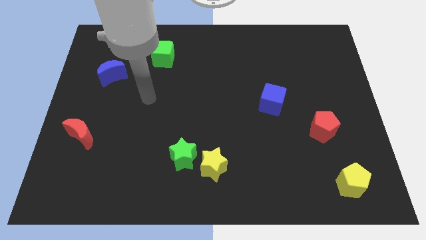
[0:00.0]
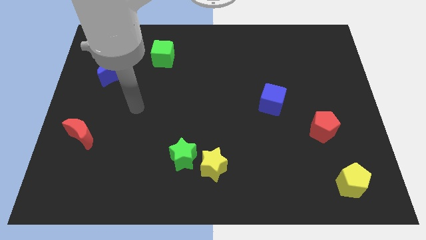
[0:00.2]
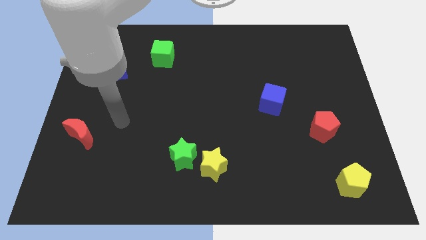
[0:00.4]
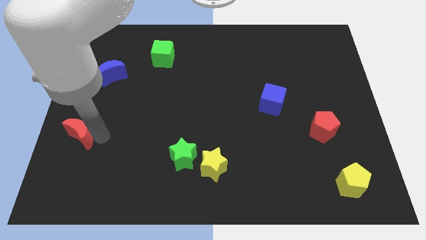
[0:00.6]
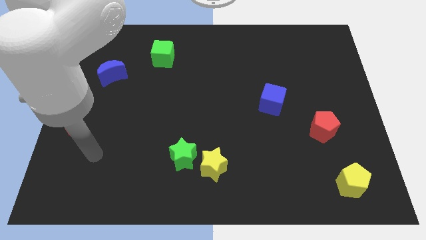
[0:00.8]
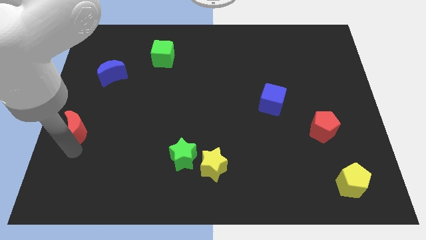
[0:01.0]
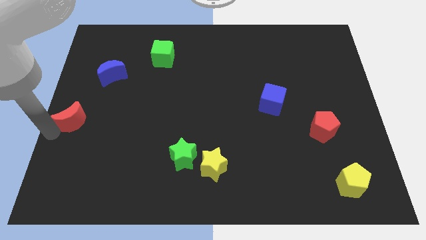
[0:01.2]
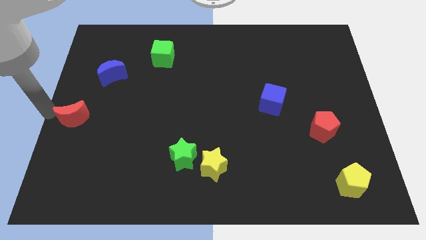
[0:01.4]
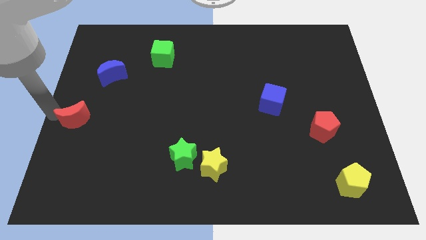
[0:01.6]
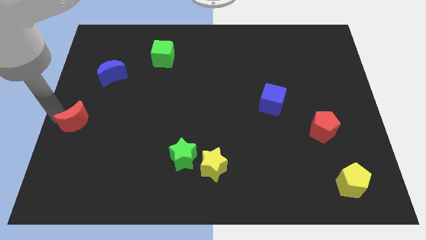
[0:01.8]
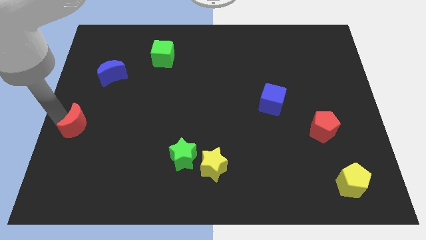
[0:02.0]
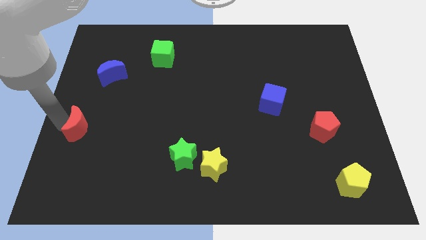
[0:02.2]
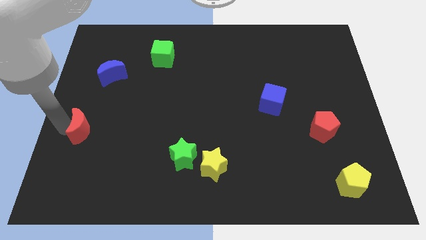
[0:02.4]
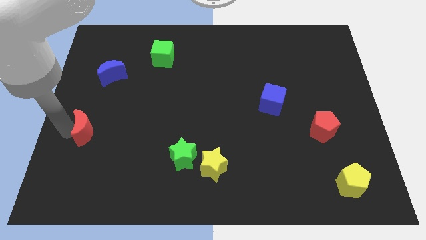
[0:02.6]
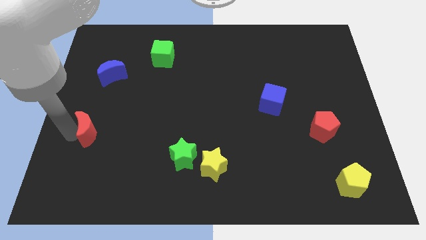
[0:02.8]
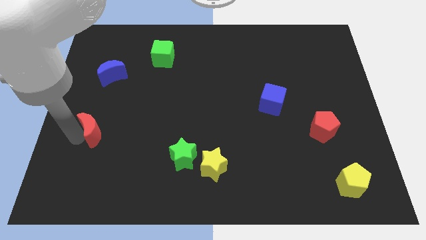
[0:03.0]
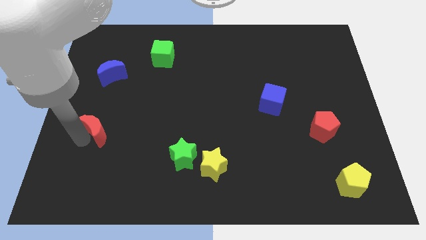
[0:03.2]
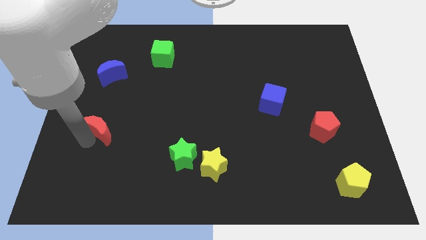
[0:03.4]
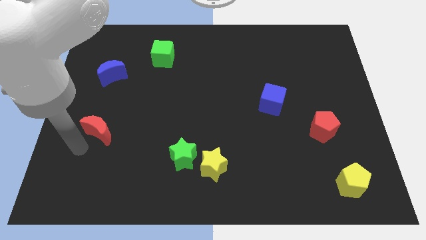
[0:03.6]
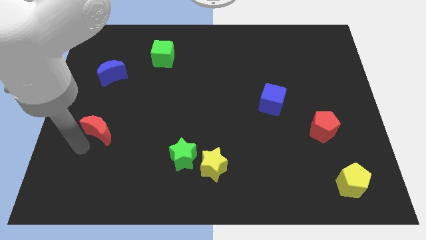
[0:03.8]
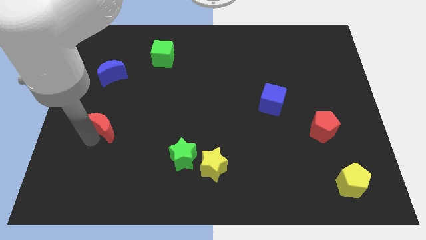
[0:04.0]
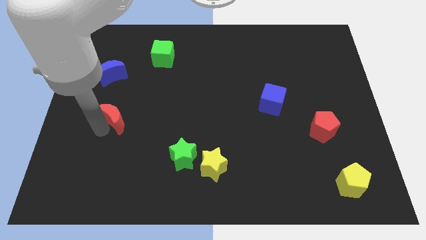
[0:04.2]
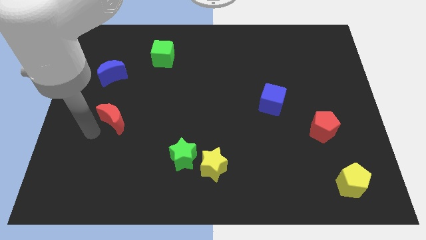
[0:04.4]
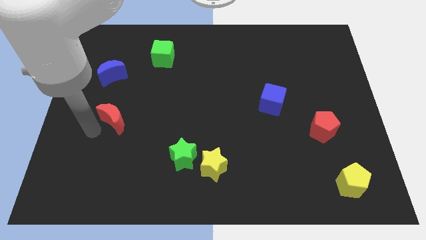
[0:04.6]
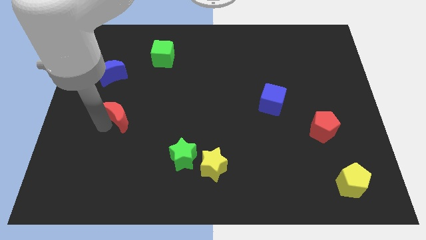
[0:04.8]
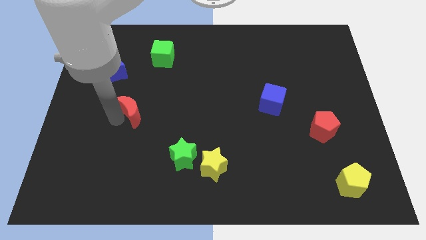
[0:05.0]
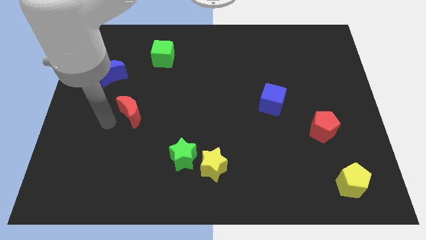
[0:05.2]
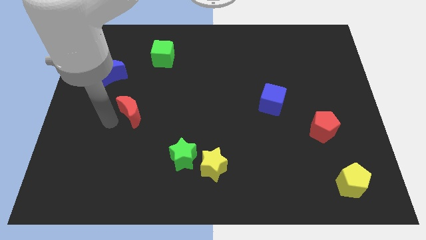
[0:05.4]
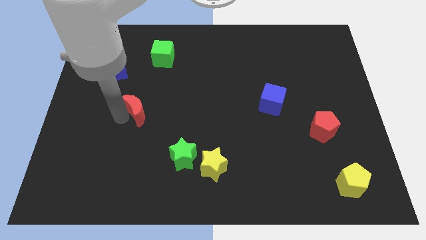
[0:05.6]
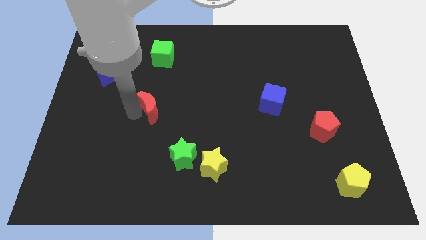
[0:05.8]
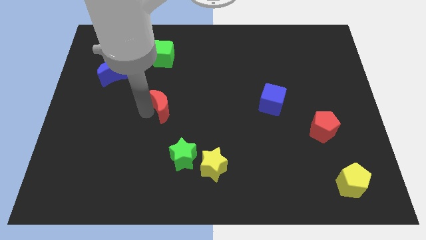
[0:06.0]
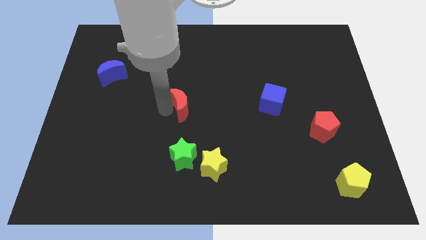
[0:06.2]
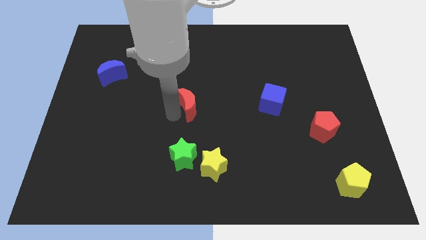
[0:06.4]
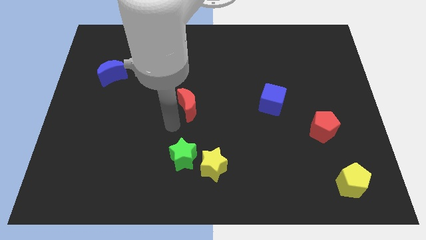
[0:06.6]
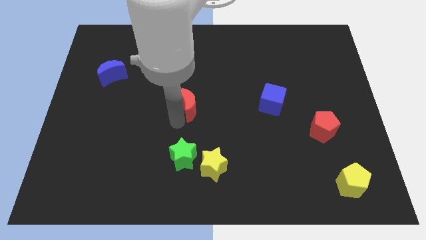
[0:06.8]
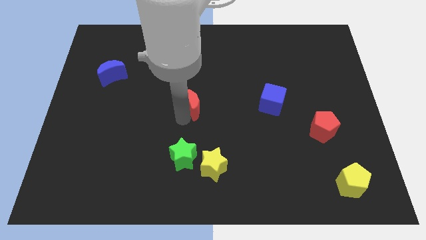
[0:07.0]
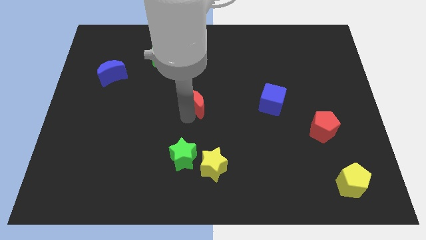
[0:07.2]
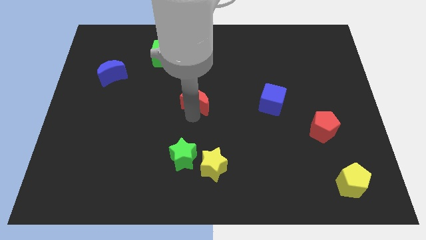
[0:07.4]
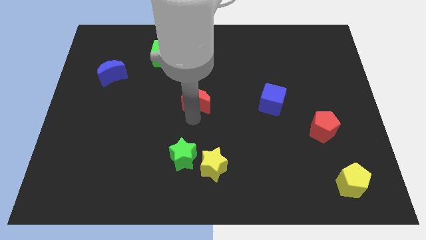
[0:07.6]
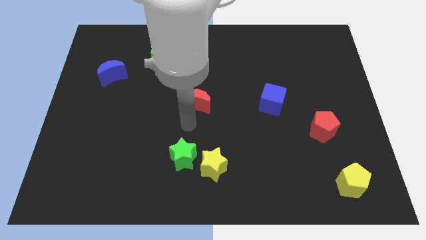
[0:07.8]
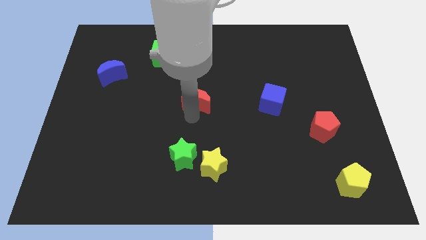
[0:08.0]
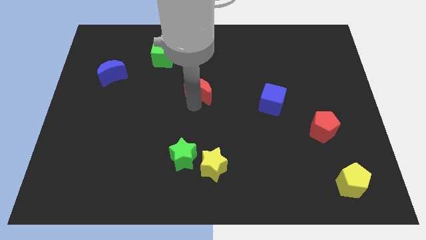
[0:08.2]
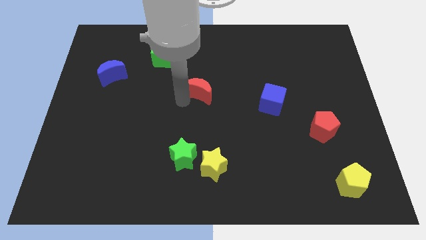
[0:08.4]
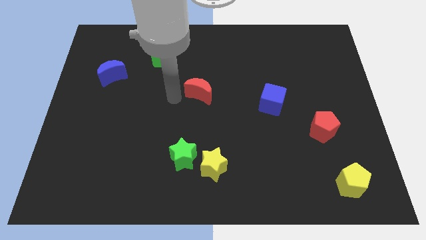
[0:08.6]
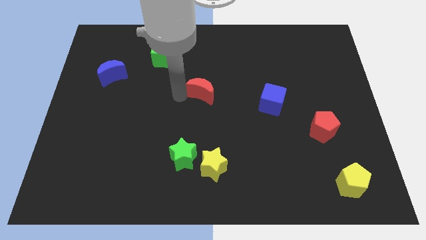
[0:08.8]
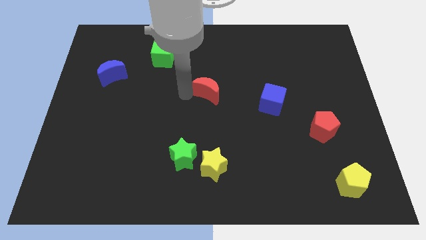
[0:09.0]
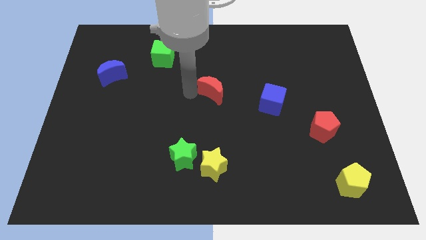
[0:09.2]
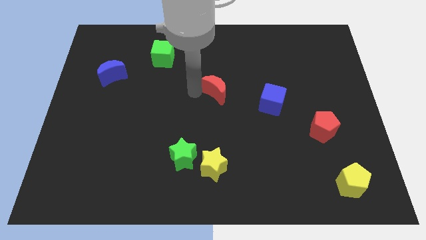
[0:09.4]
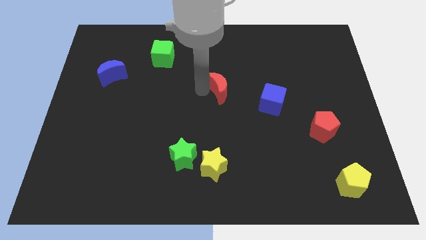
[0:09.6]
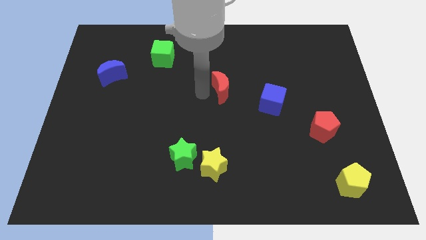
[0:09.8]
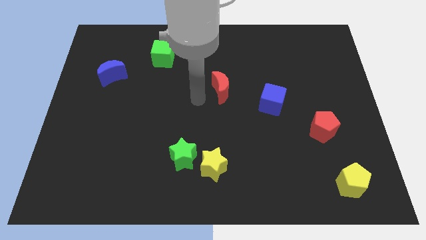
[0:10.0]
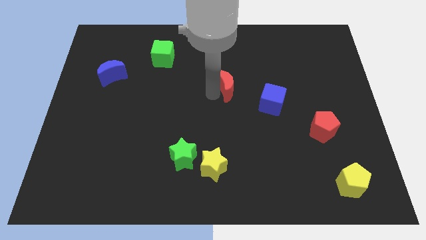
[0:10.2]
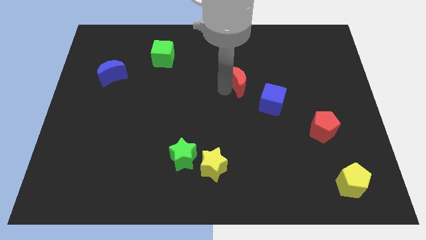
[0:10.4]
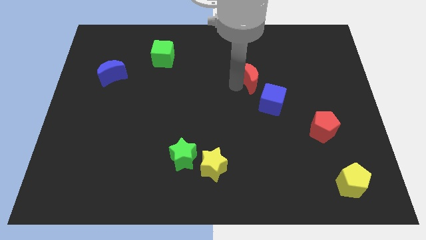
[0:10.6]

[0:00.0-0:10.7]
push the red moon to the top of the blue cube
